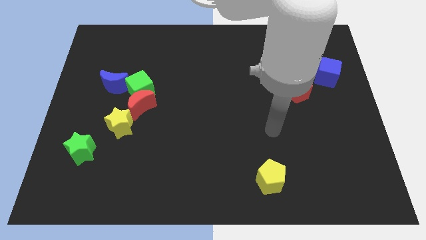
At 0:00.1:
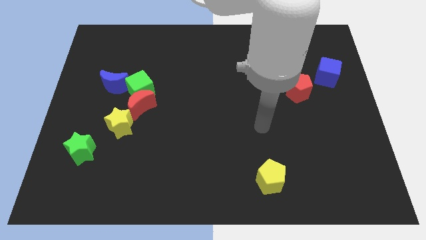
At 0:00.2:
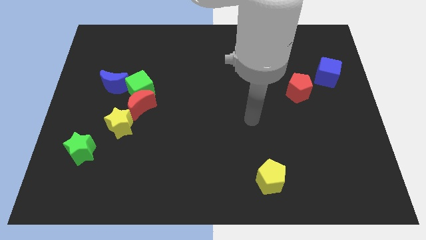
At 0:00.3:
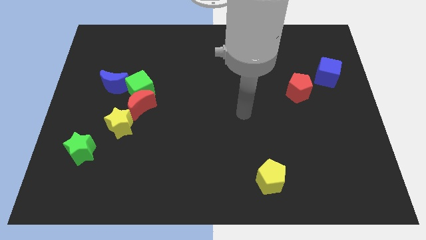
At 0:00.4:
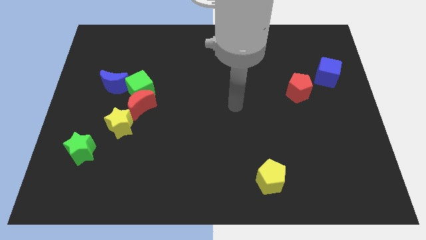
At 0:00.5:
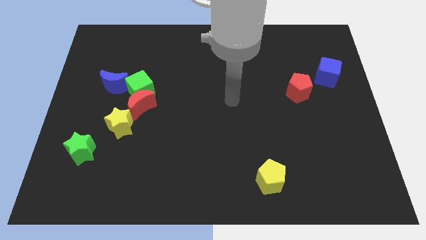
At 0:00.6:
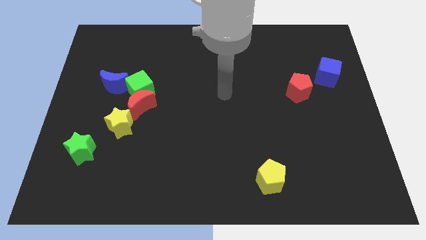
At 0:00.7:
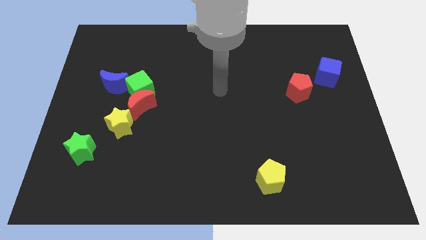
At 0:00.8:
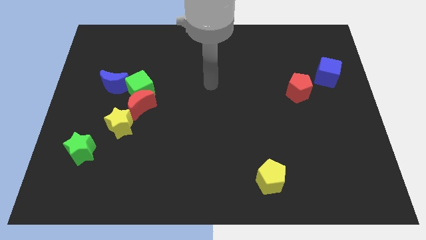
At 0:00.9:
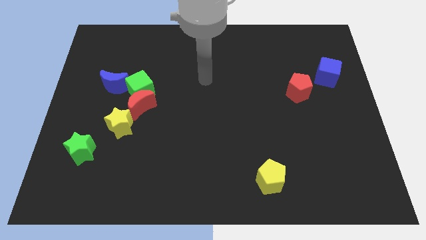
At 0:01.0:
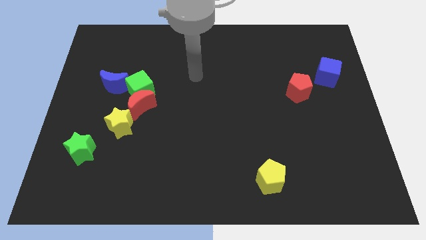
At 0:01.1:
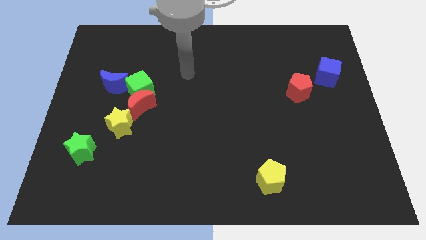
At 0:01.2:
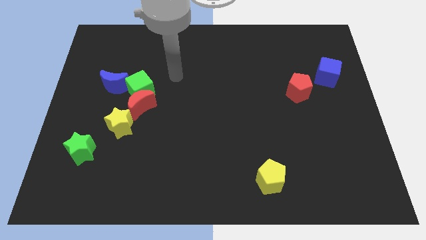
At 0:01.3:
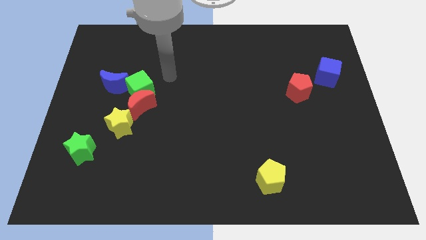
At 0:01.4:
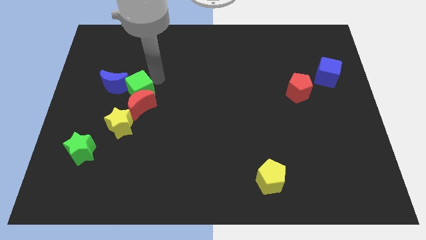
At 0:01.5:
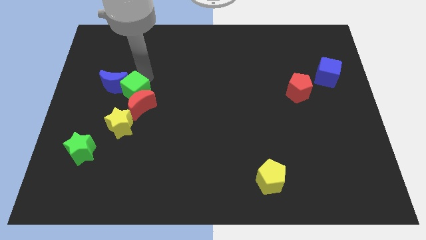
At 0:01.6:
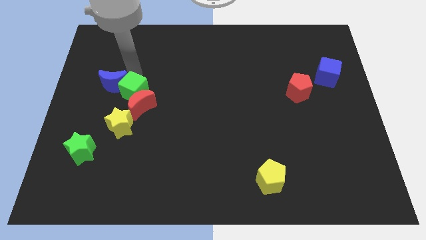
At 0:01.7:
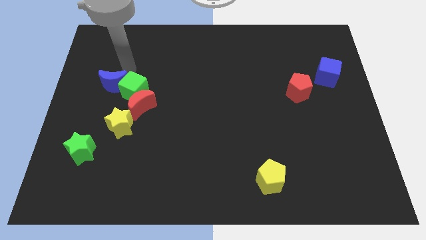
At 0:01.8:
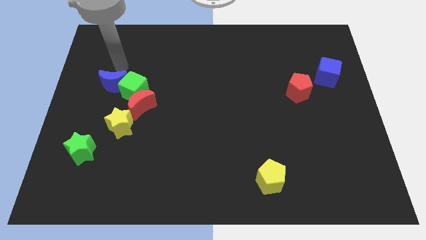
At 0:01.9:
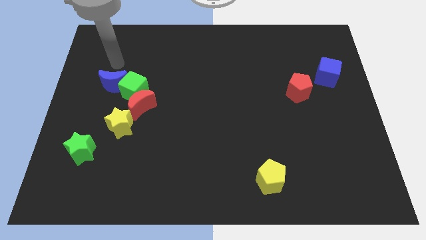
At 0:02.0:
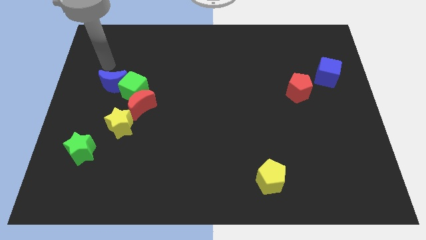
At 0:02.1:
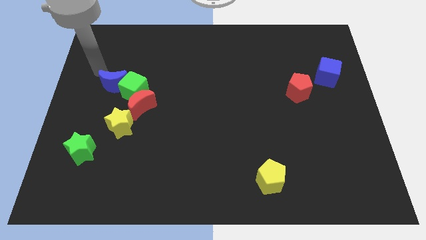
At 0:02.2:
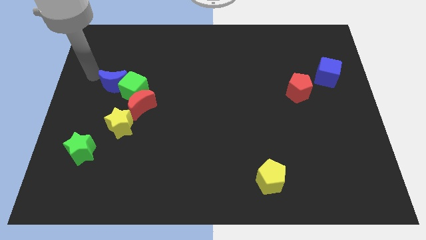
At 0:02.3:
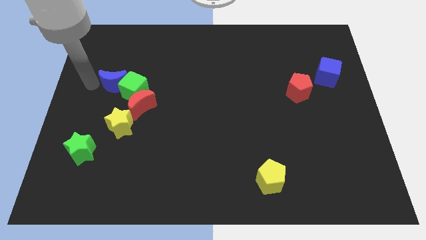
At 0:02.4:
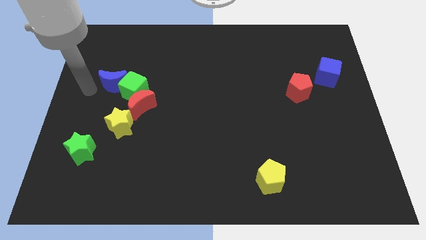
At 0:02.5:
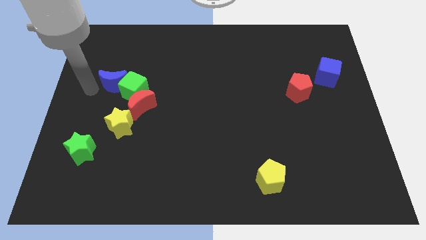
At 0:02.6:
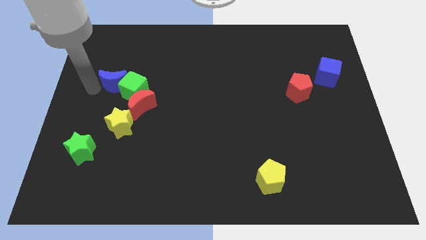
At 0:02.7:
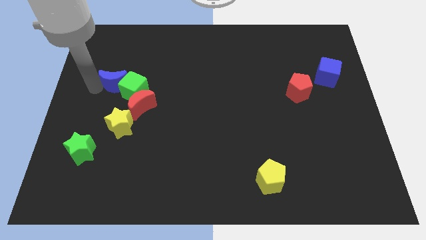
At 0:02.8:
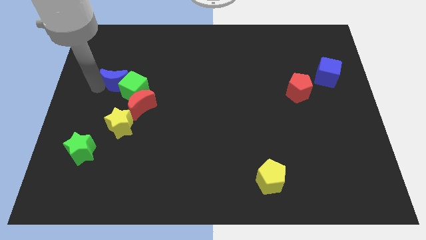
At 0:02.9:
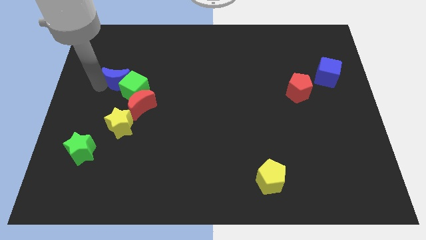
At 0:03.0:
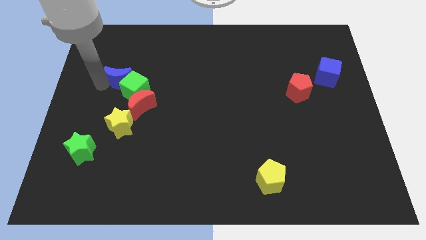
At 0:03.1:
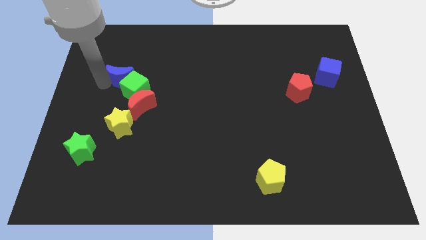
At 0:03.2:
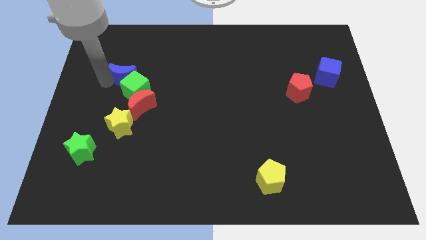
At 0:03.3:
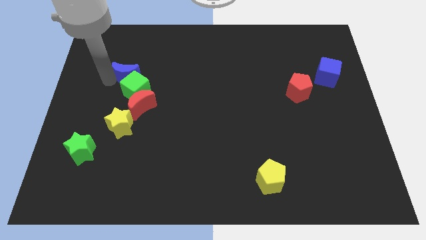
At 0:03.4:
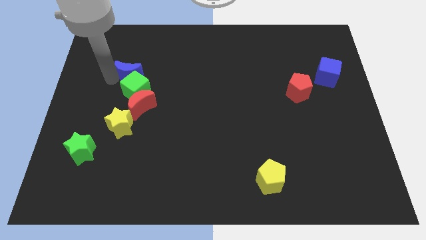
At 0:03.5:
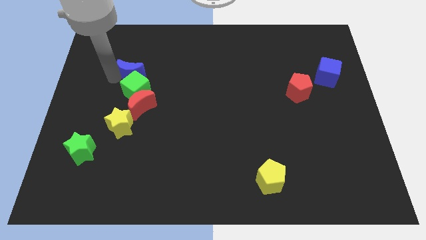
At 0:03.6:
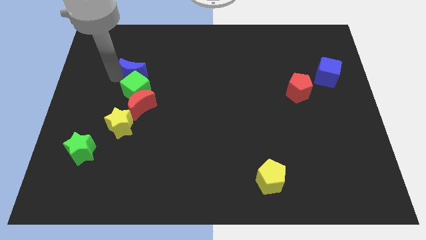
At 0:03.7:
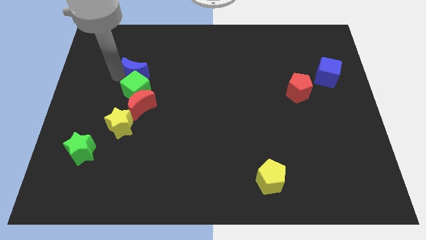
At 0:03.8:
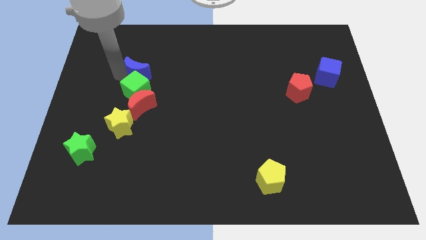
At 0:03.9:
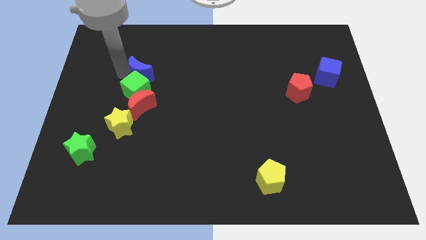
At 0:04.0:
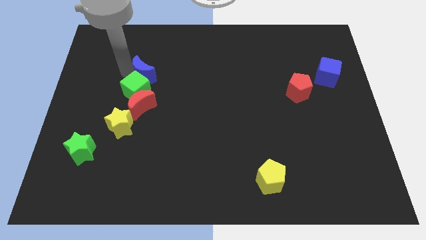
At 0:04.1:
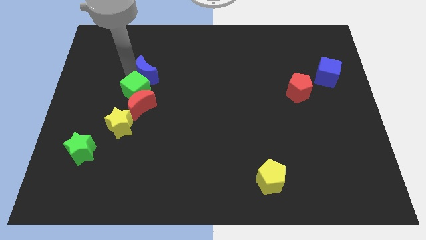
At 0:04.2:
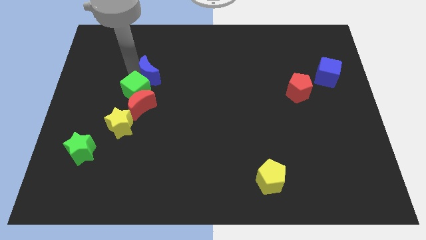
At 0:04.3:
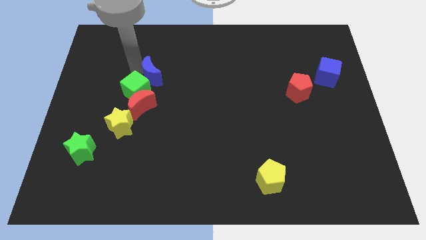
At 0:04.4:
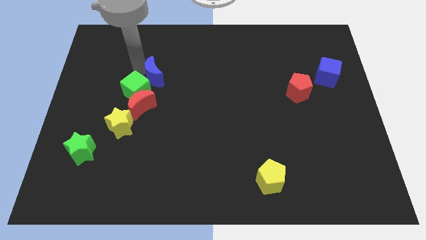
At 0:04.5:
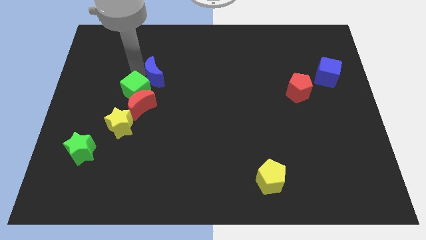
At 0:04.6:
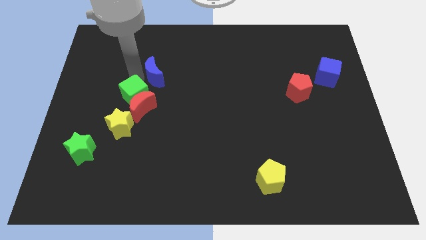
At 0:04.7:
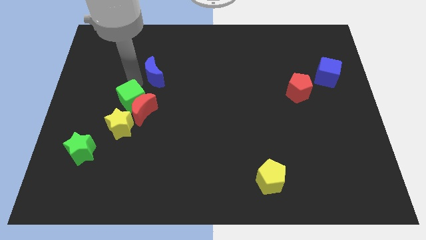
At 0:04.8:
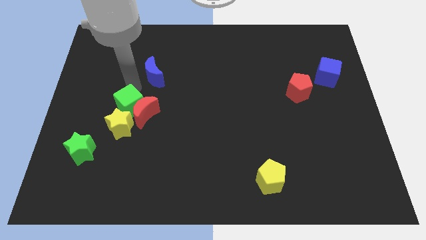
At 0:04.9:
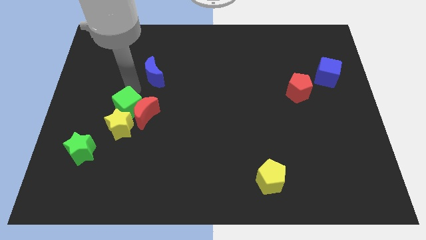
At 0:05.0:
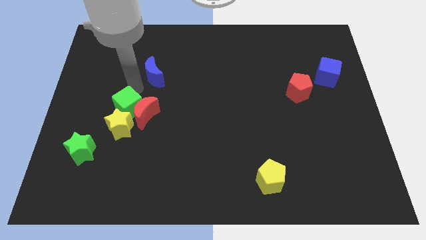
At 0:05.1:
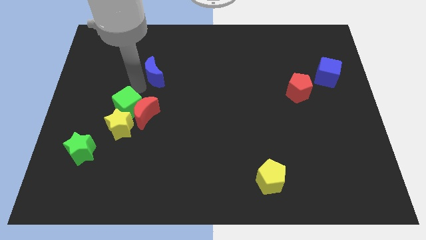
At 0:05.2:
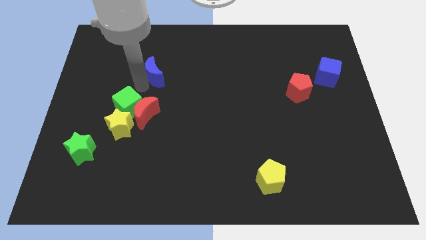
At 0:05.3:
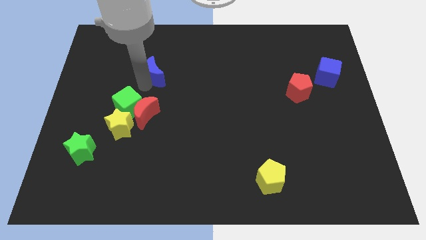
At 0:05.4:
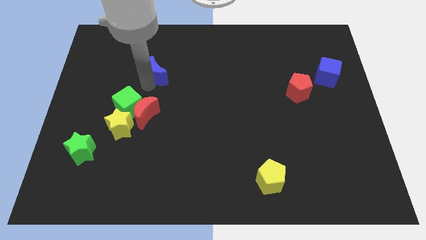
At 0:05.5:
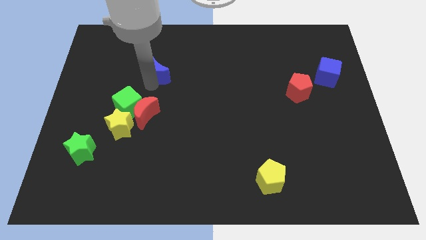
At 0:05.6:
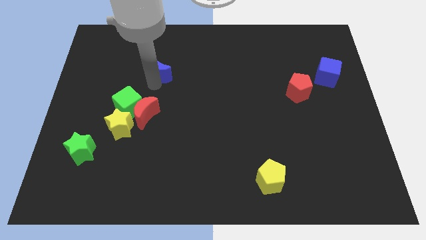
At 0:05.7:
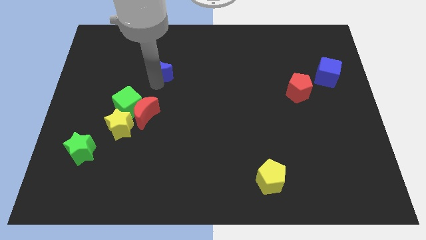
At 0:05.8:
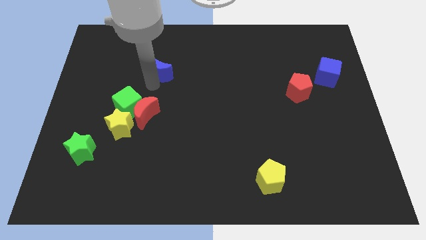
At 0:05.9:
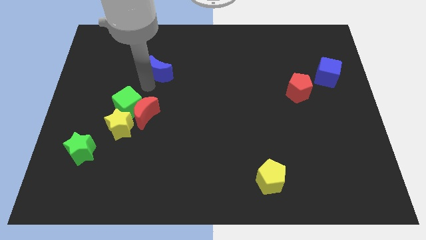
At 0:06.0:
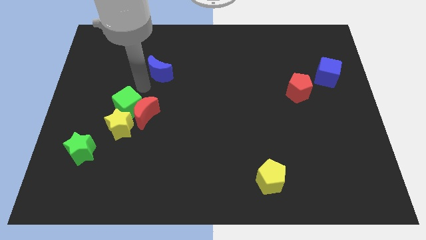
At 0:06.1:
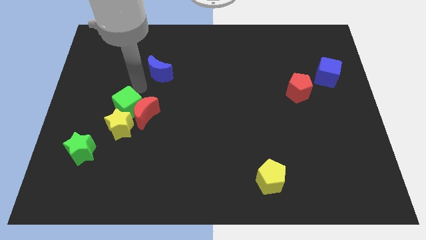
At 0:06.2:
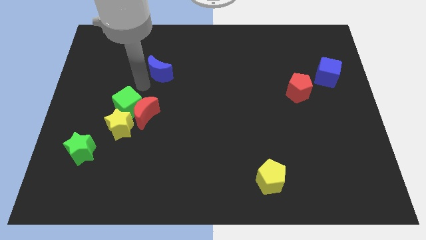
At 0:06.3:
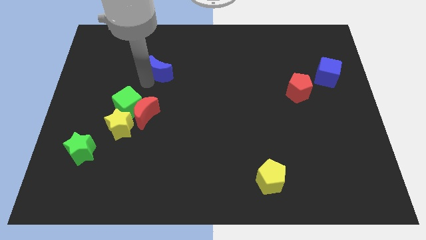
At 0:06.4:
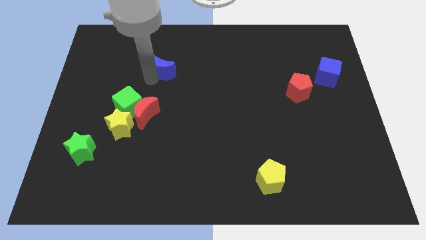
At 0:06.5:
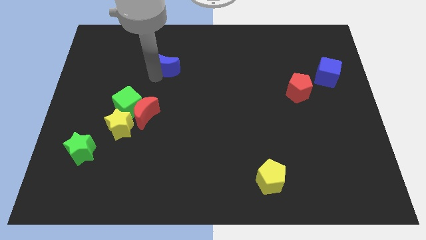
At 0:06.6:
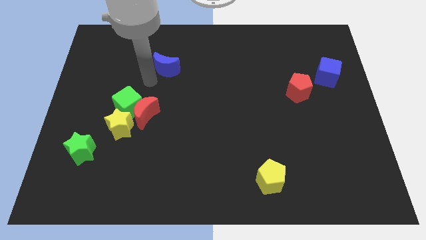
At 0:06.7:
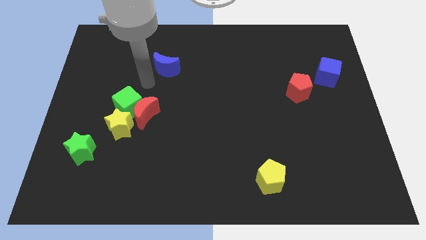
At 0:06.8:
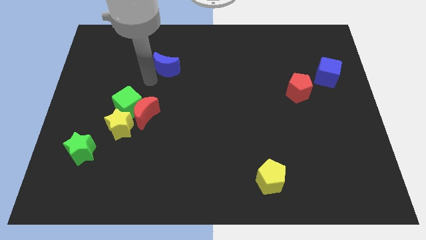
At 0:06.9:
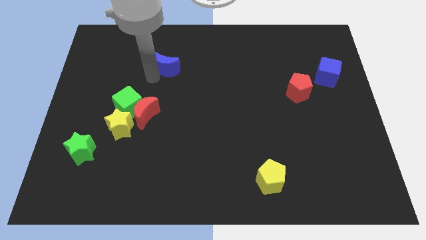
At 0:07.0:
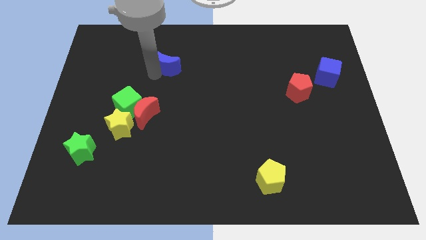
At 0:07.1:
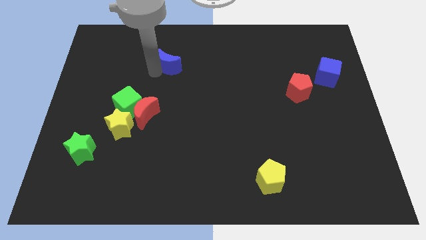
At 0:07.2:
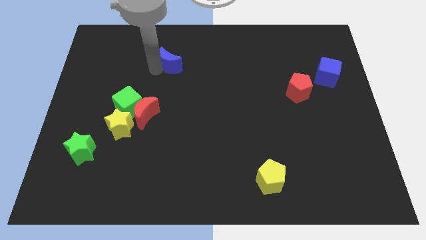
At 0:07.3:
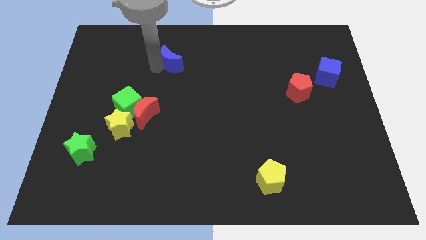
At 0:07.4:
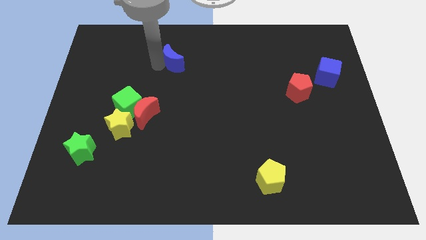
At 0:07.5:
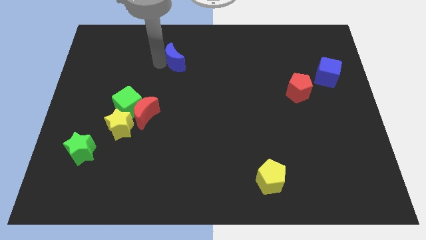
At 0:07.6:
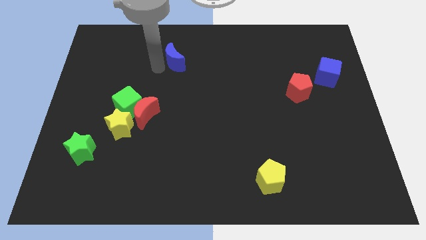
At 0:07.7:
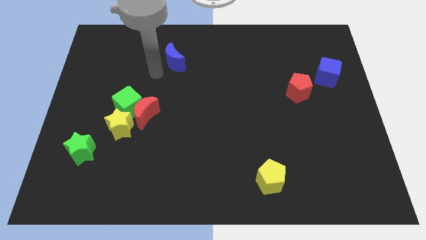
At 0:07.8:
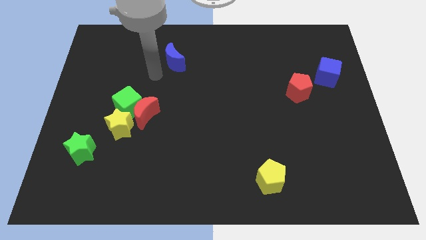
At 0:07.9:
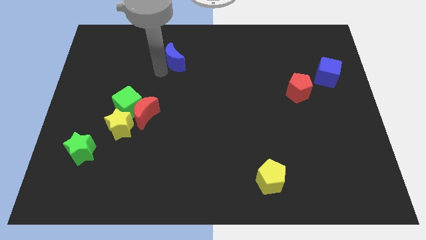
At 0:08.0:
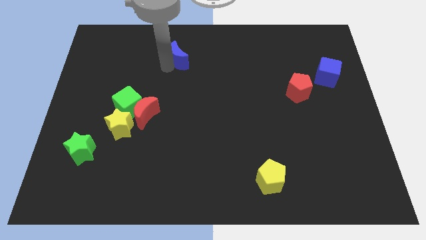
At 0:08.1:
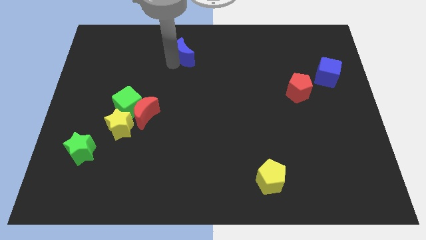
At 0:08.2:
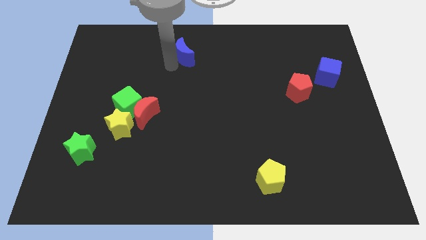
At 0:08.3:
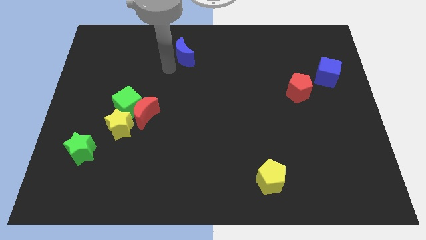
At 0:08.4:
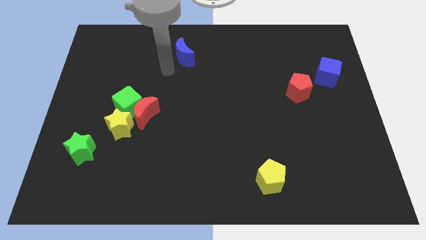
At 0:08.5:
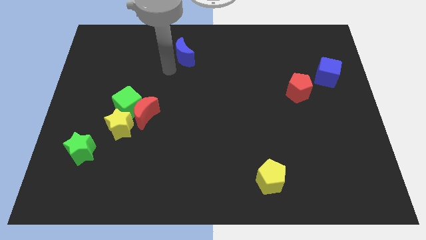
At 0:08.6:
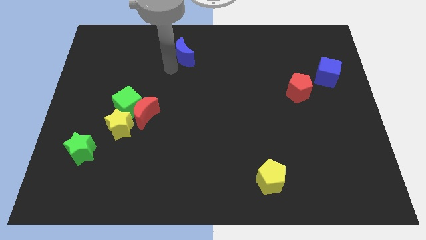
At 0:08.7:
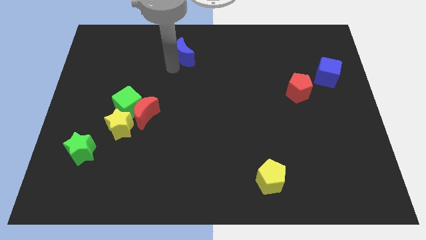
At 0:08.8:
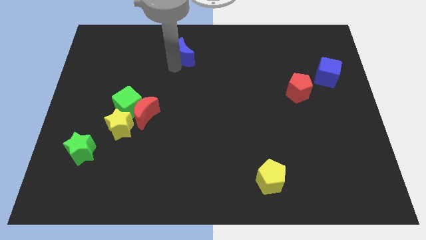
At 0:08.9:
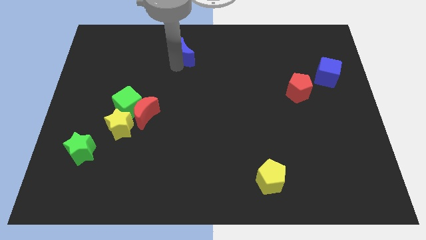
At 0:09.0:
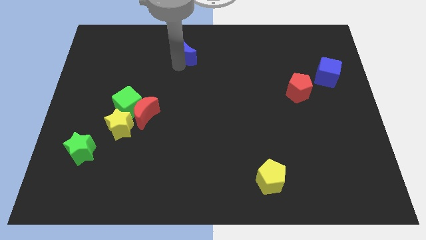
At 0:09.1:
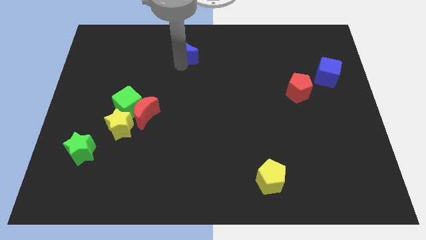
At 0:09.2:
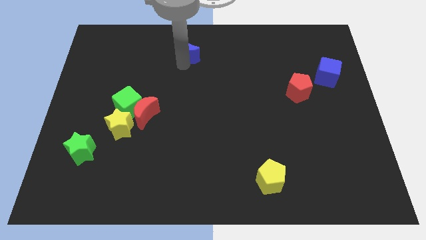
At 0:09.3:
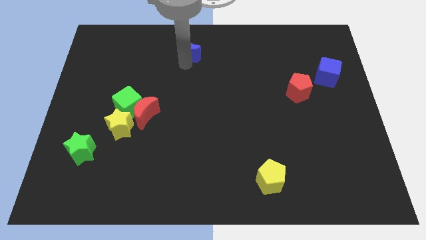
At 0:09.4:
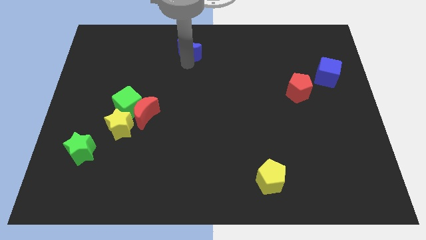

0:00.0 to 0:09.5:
push the blue moon to the top
